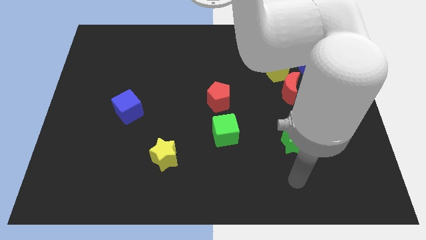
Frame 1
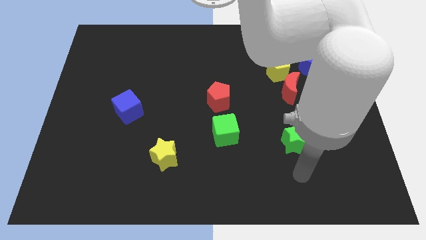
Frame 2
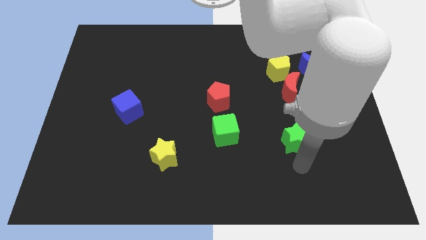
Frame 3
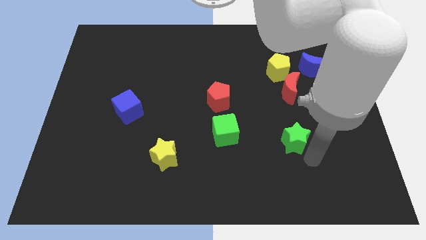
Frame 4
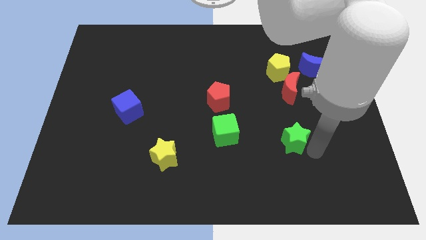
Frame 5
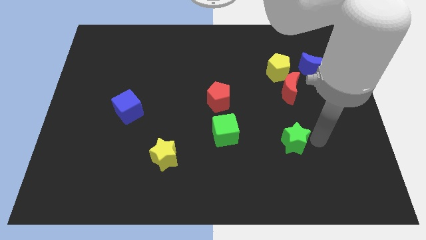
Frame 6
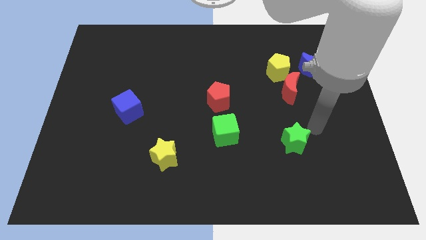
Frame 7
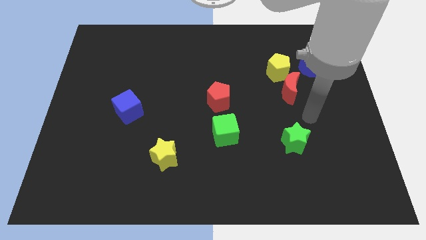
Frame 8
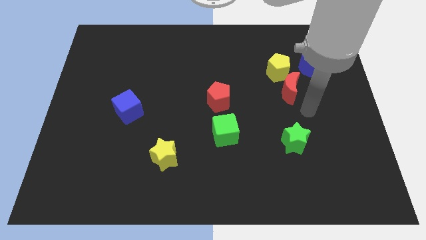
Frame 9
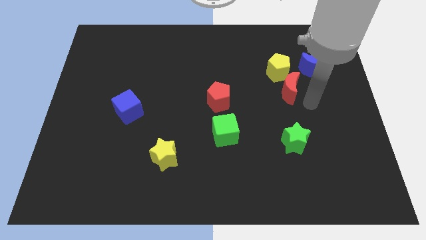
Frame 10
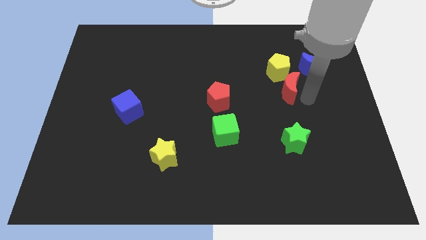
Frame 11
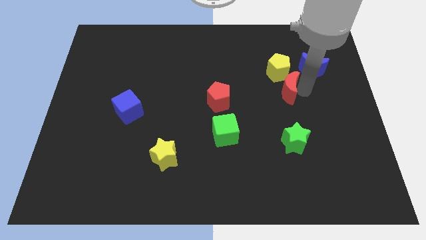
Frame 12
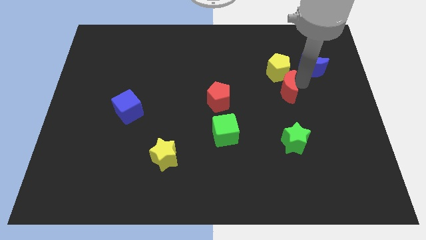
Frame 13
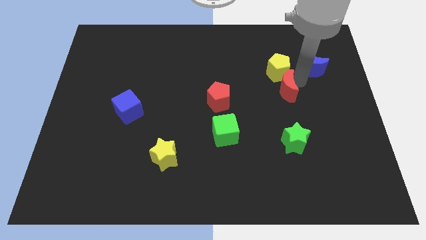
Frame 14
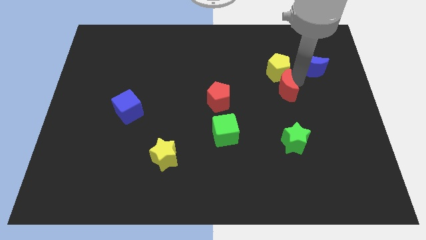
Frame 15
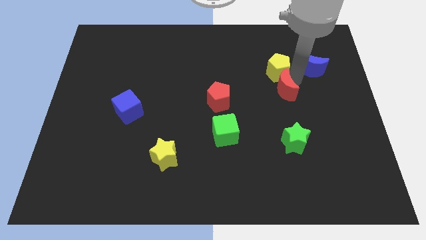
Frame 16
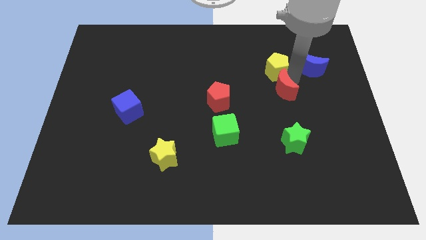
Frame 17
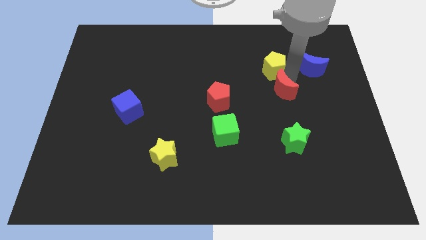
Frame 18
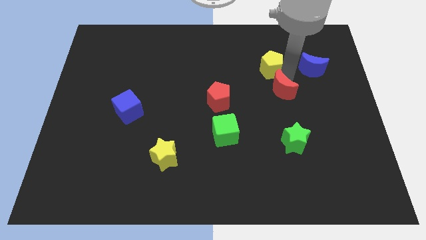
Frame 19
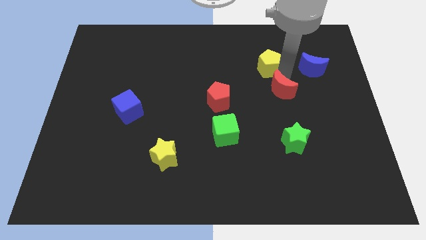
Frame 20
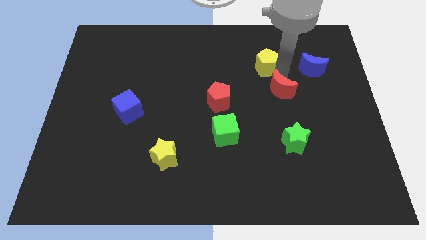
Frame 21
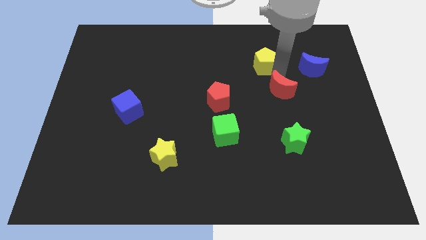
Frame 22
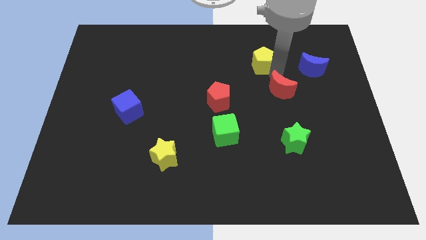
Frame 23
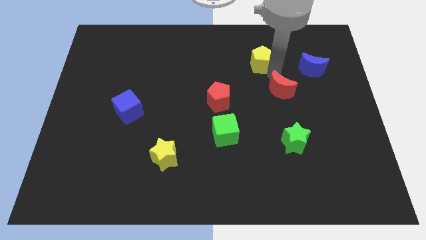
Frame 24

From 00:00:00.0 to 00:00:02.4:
move the yellow pentagon away from the red moon and blue moon

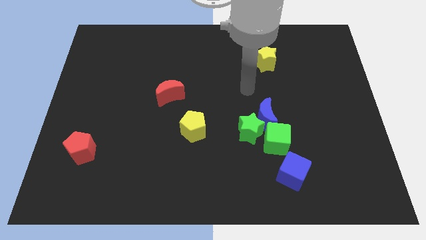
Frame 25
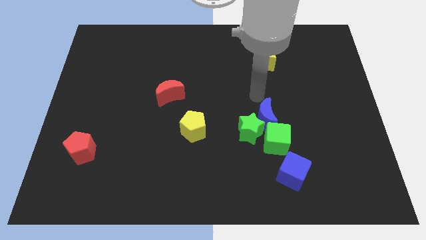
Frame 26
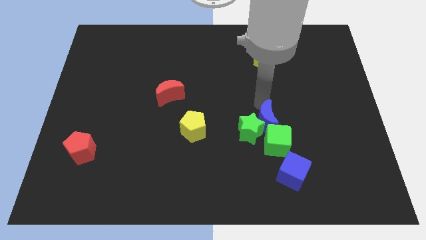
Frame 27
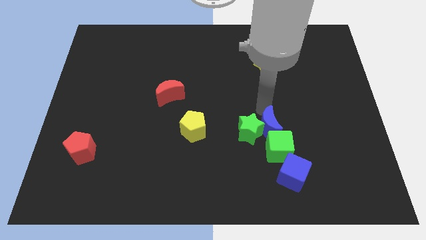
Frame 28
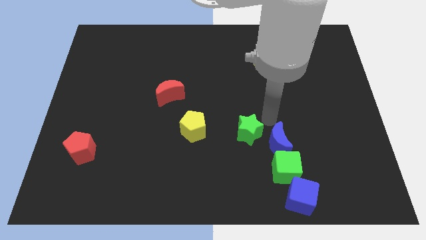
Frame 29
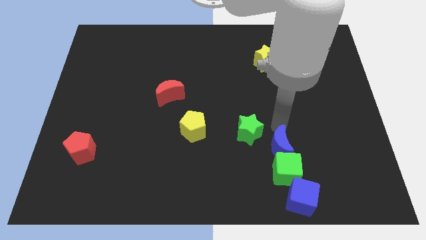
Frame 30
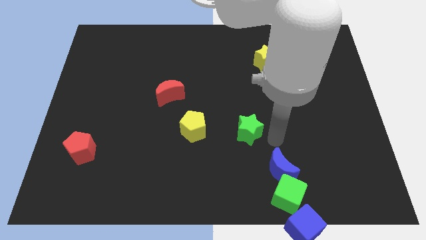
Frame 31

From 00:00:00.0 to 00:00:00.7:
move the green star away from the blue moon and green cube

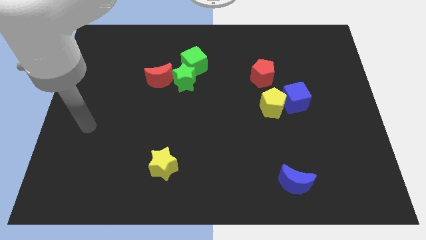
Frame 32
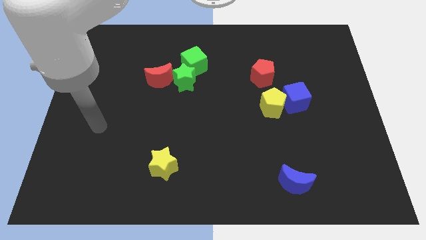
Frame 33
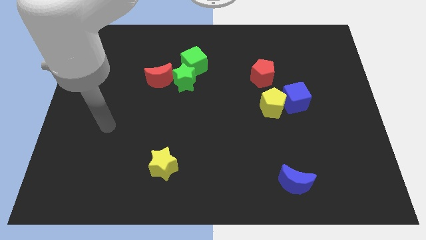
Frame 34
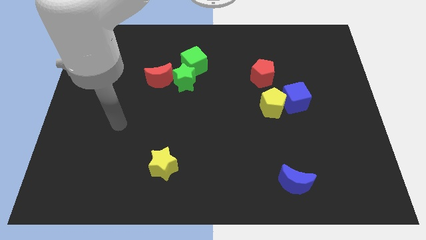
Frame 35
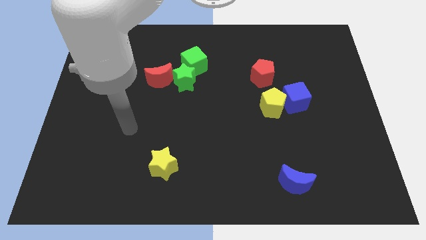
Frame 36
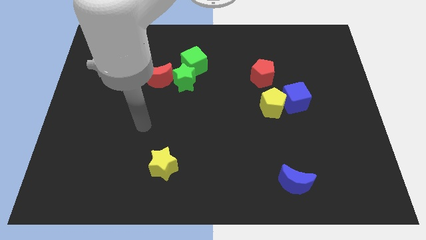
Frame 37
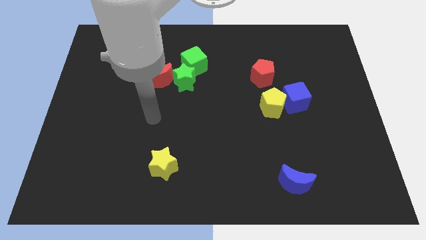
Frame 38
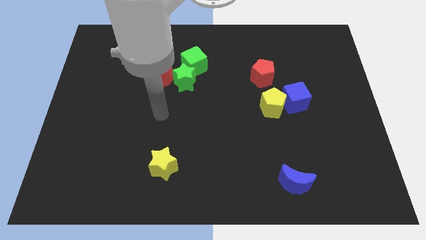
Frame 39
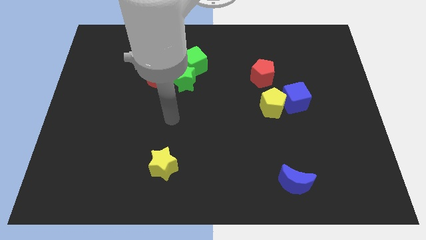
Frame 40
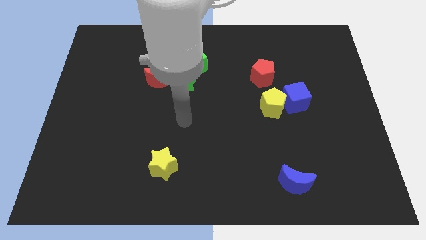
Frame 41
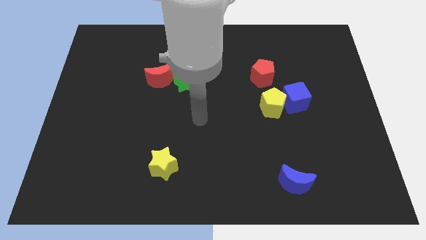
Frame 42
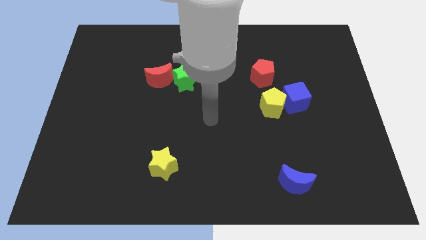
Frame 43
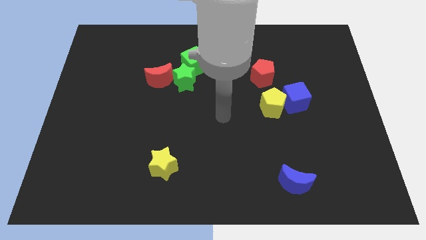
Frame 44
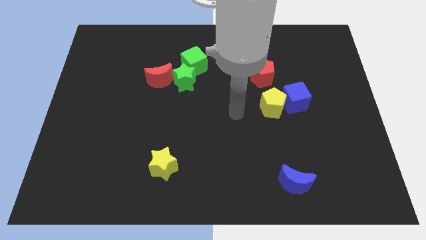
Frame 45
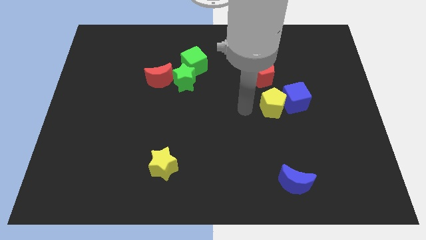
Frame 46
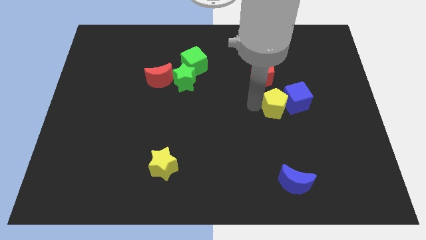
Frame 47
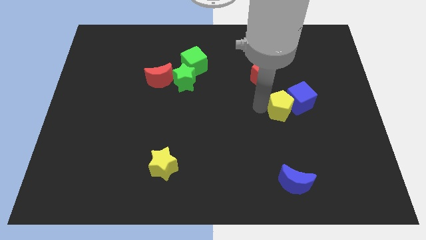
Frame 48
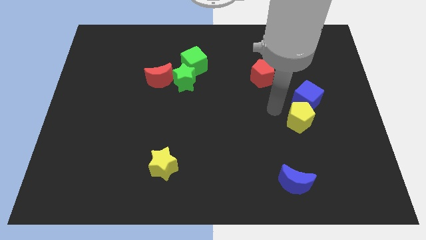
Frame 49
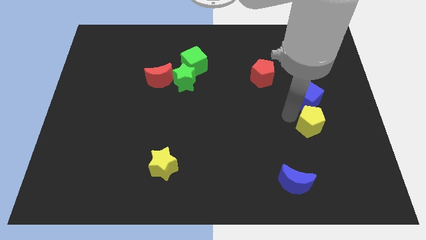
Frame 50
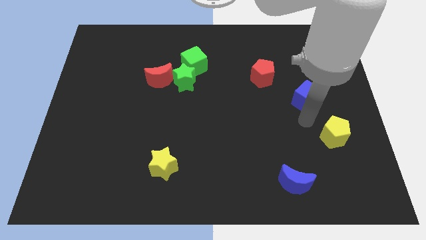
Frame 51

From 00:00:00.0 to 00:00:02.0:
pull the blue cube apart from the yellow pentagon

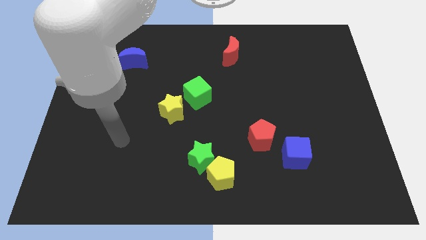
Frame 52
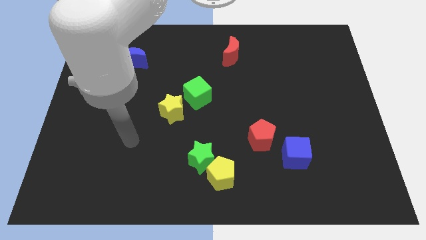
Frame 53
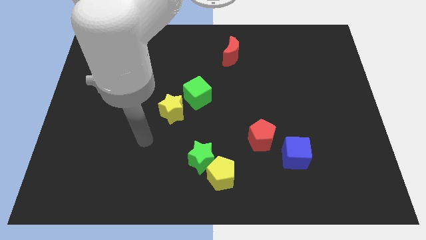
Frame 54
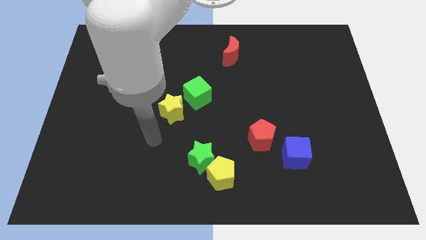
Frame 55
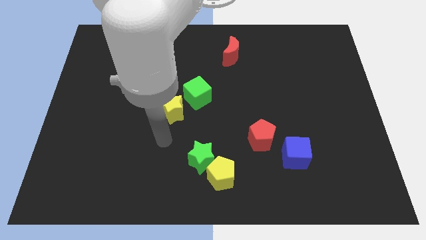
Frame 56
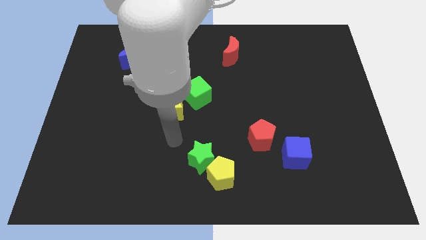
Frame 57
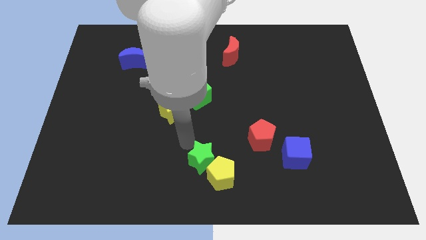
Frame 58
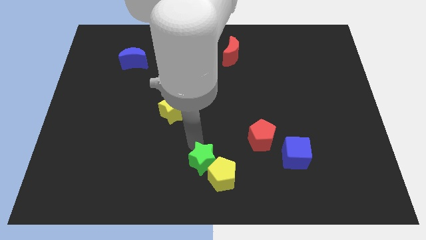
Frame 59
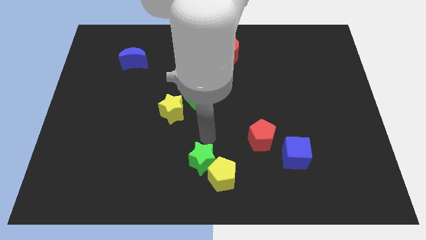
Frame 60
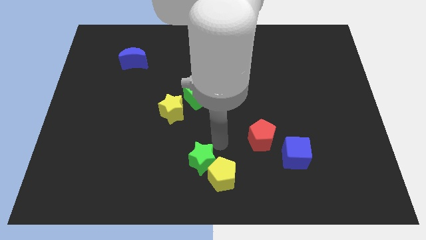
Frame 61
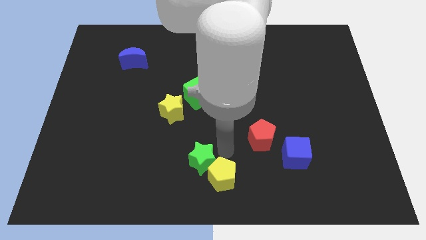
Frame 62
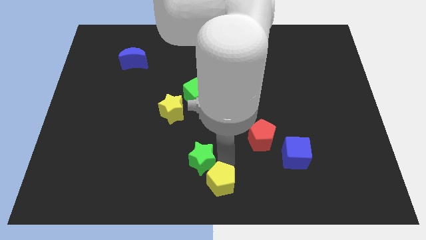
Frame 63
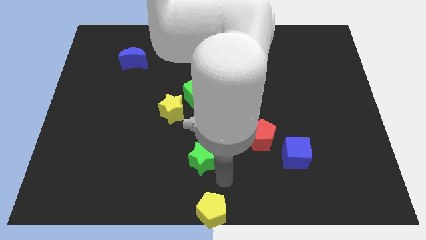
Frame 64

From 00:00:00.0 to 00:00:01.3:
separate the green star from the yellow pentagon

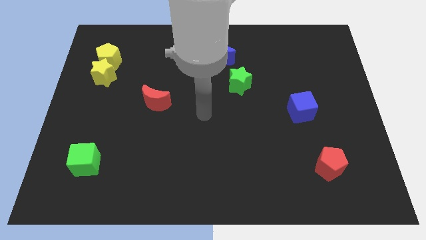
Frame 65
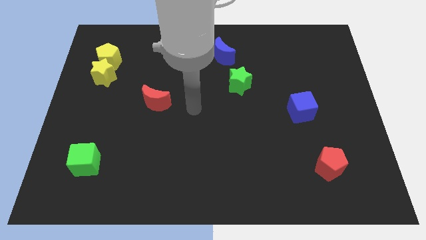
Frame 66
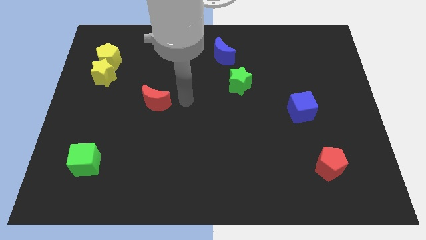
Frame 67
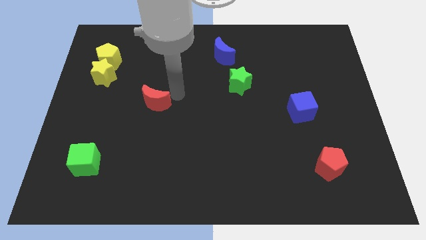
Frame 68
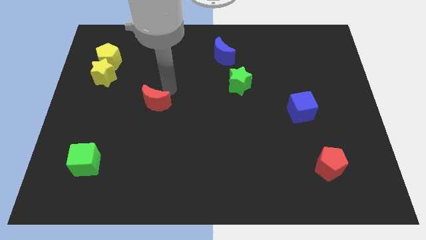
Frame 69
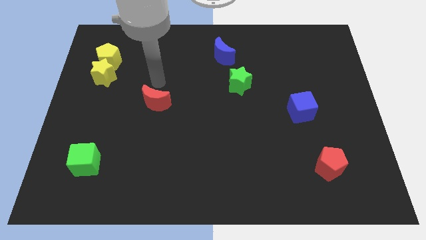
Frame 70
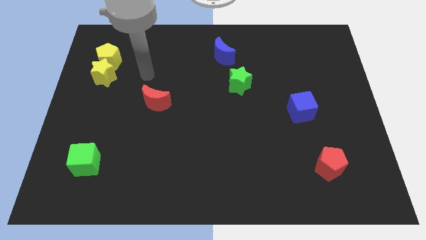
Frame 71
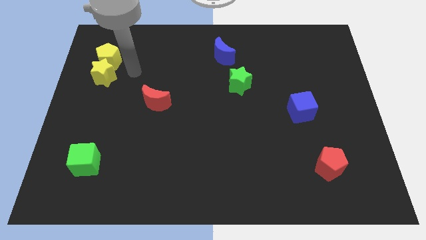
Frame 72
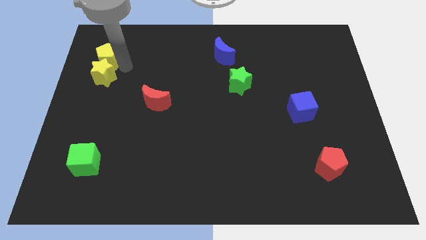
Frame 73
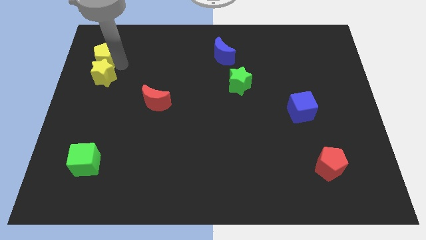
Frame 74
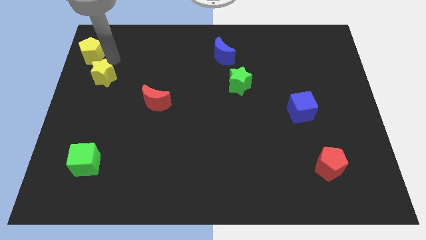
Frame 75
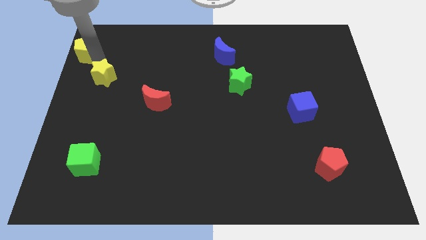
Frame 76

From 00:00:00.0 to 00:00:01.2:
move the yellow star away from the yellow pentagon

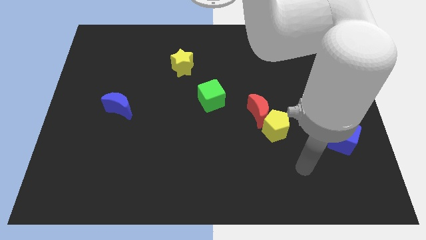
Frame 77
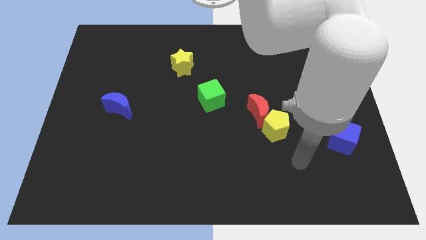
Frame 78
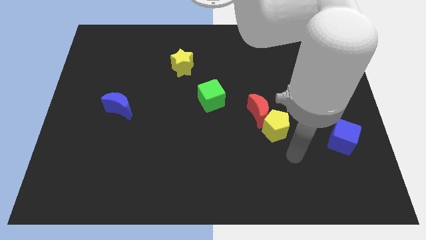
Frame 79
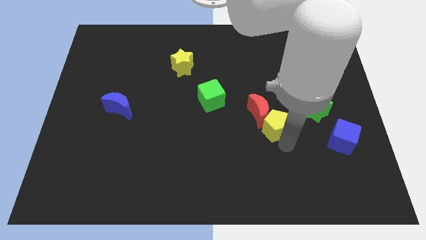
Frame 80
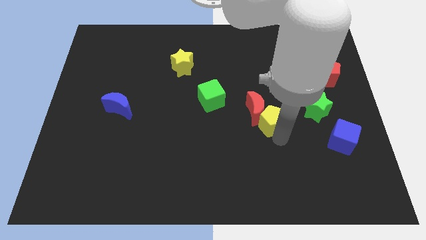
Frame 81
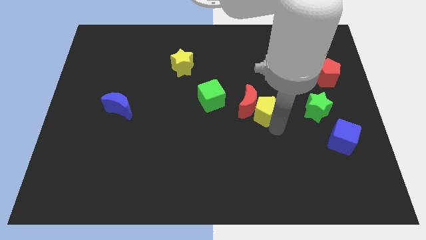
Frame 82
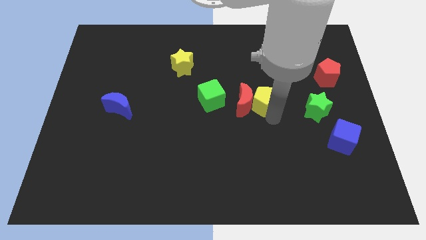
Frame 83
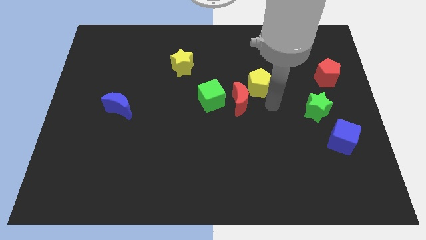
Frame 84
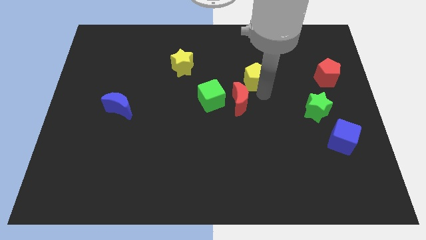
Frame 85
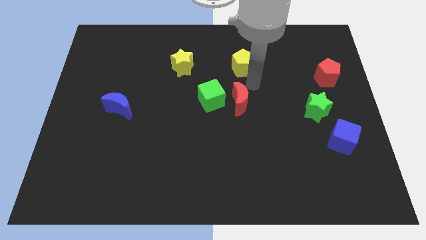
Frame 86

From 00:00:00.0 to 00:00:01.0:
move the red moon away from the yellow pentagon

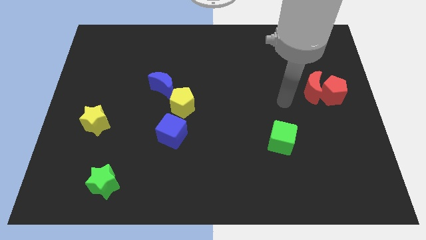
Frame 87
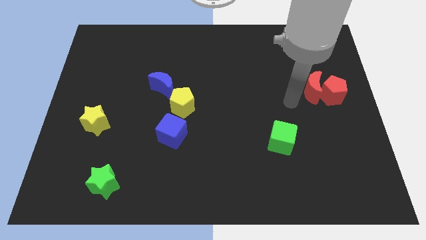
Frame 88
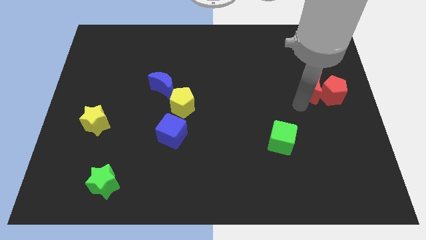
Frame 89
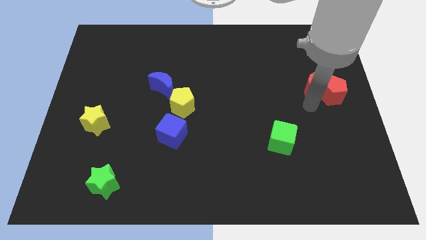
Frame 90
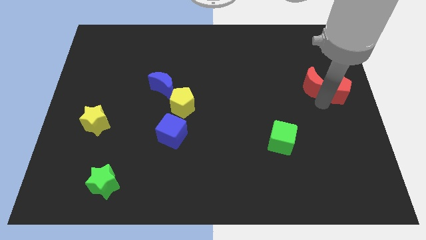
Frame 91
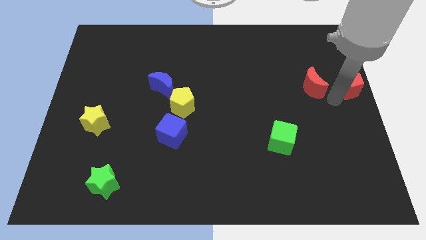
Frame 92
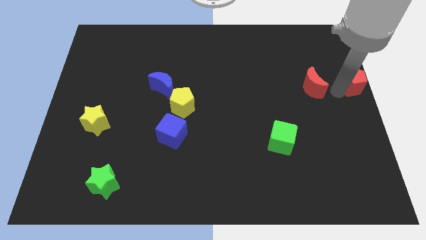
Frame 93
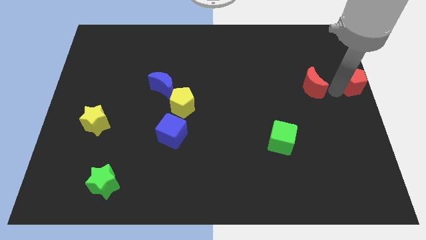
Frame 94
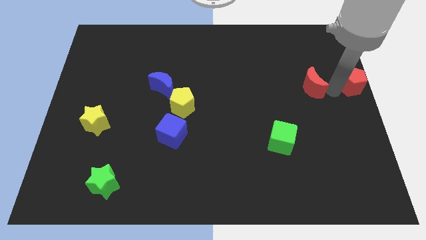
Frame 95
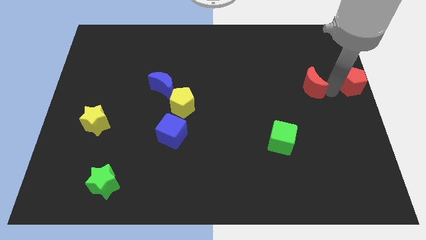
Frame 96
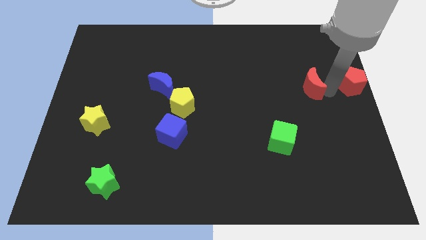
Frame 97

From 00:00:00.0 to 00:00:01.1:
pull the red moon apart from the red pentagon
